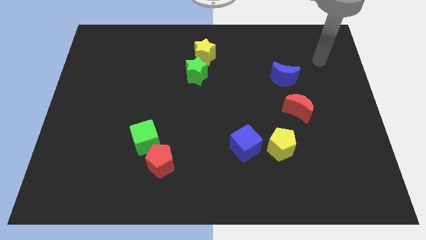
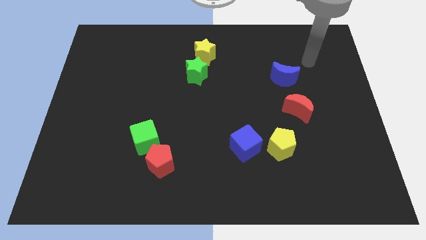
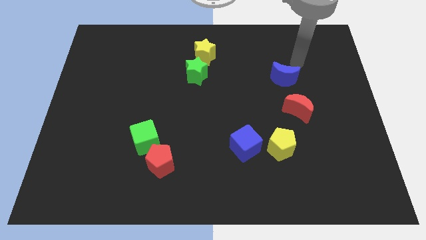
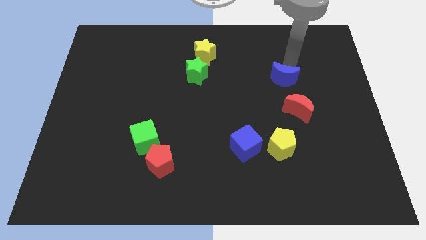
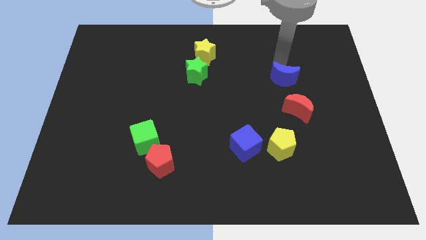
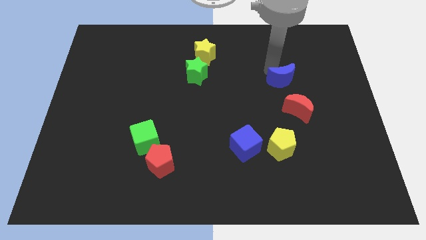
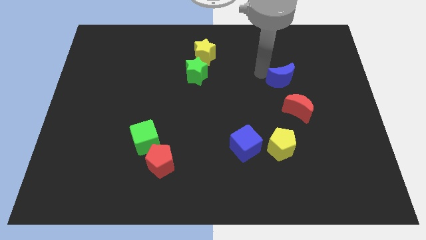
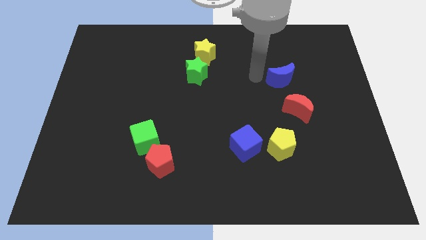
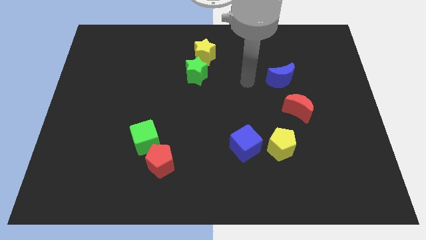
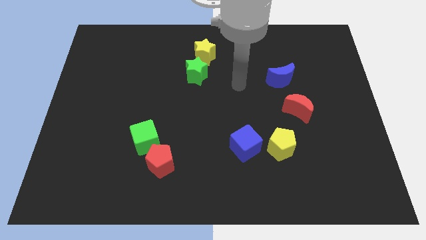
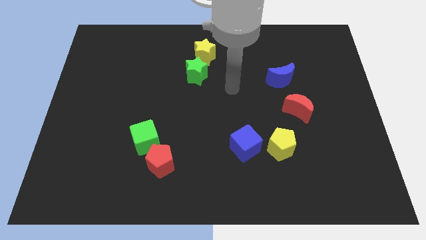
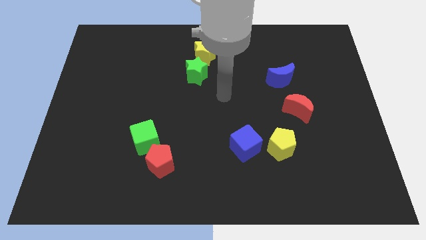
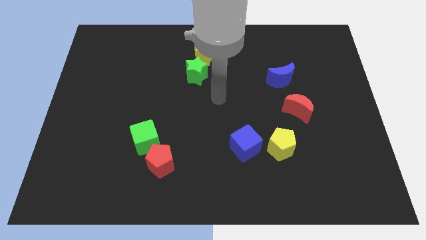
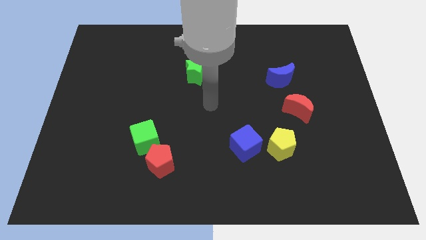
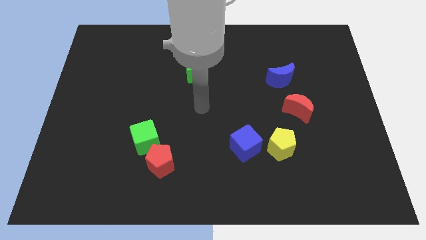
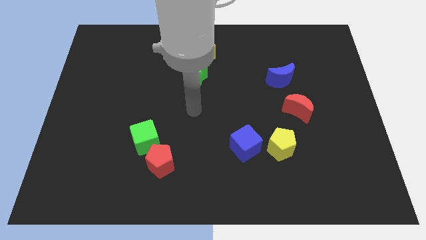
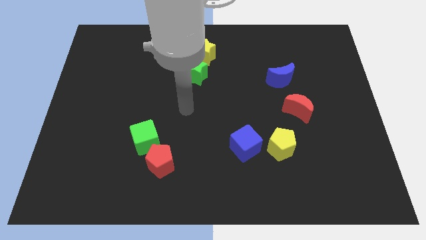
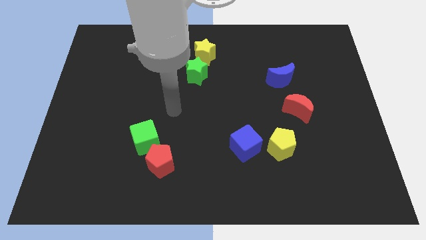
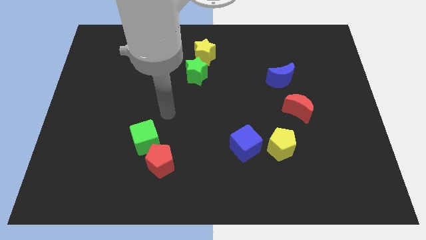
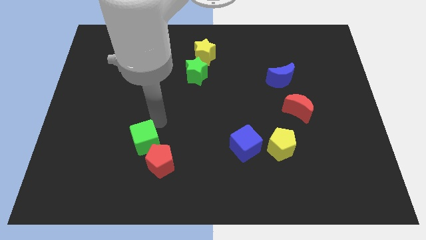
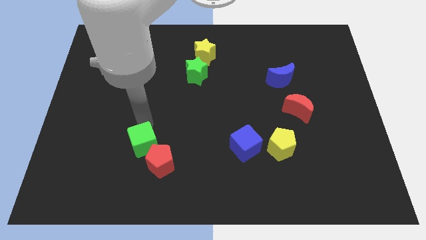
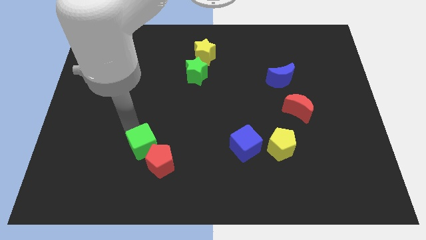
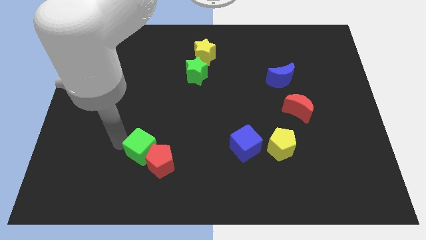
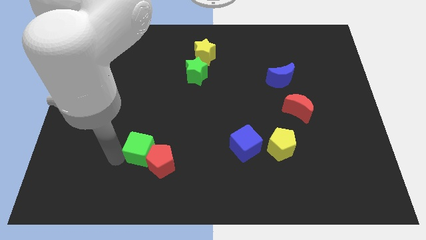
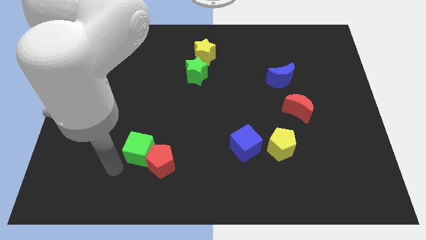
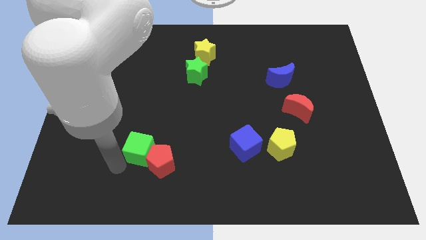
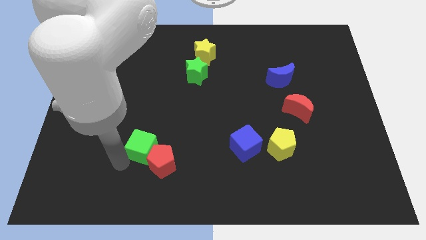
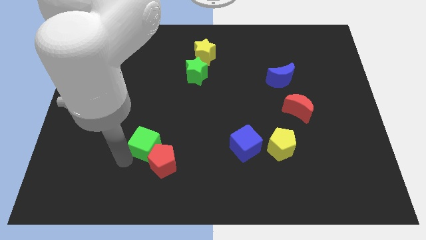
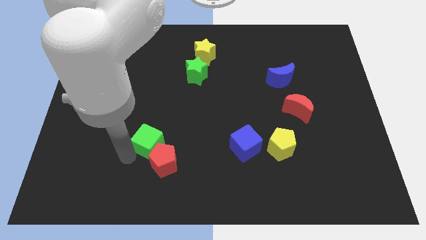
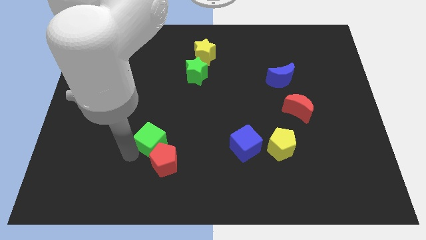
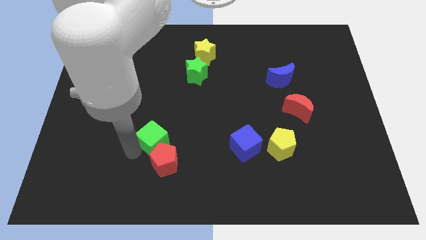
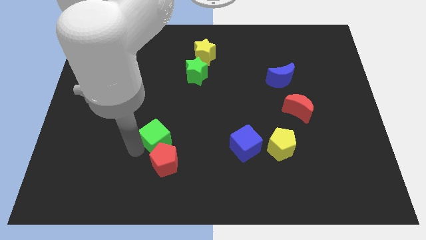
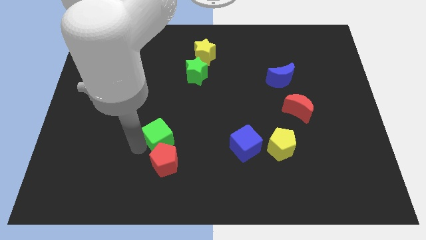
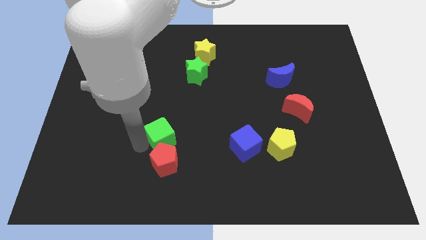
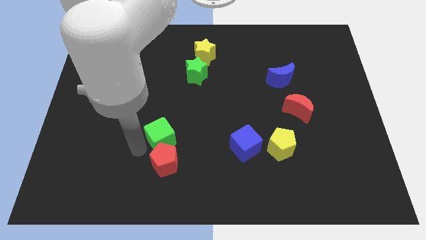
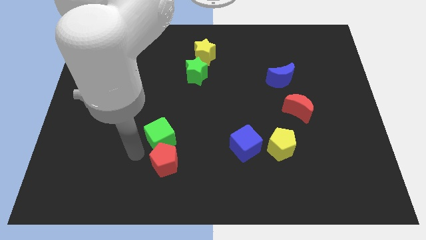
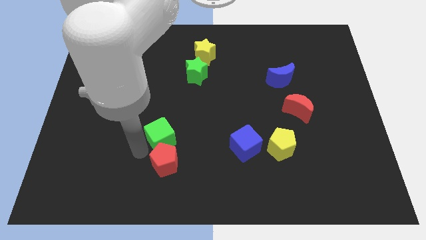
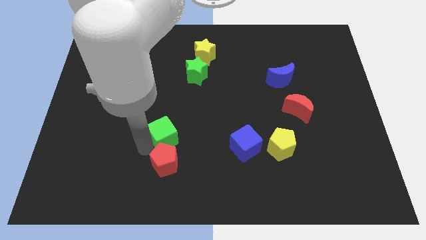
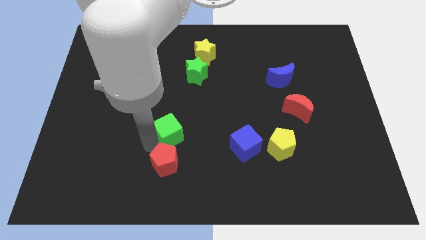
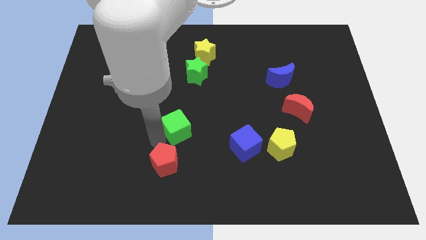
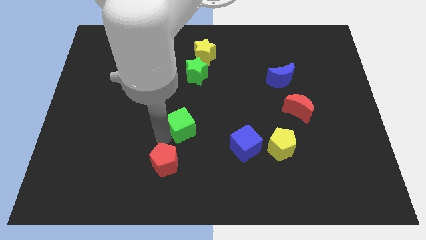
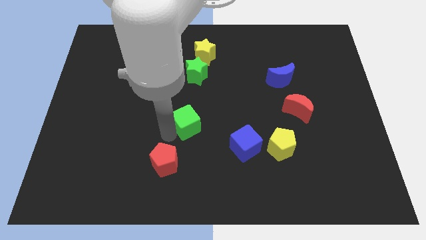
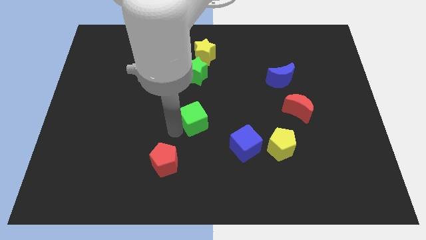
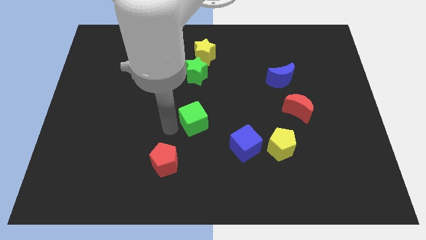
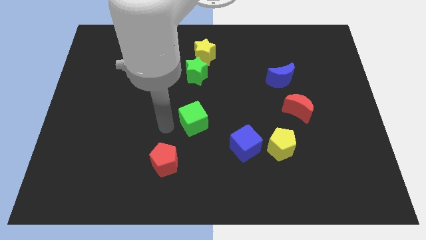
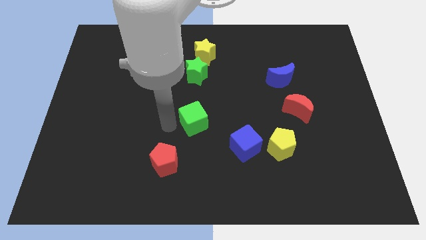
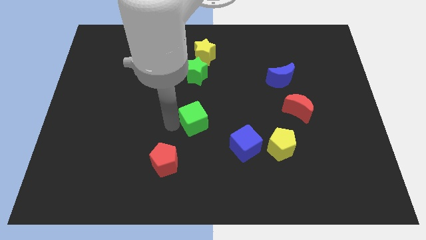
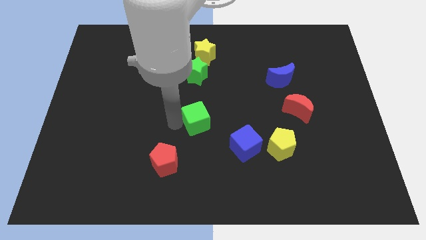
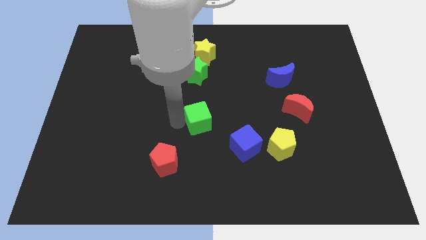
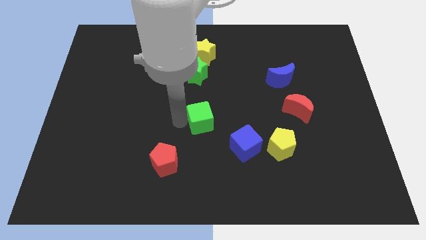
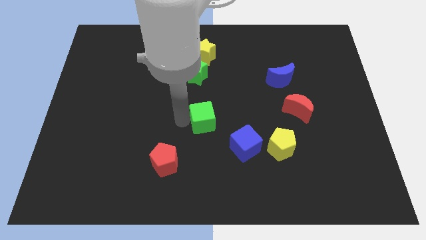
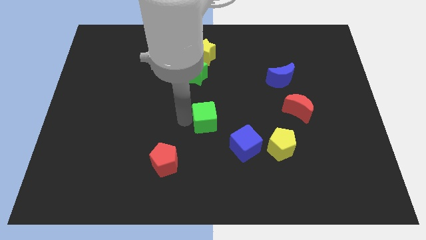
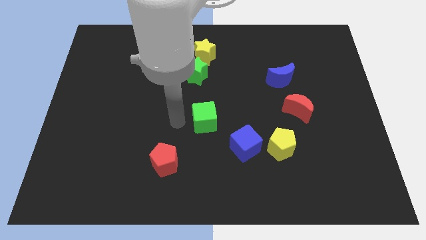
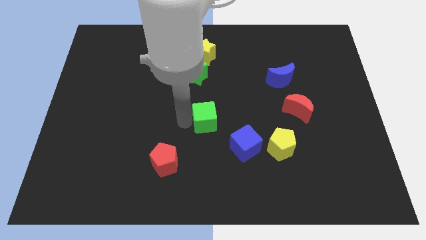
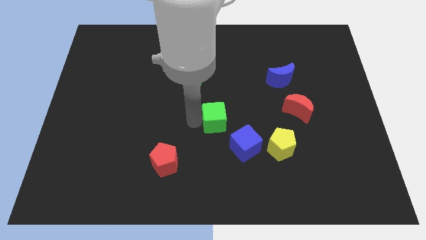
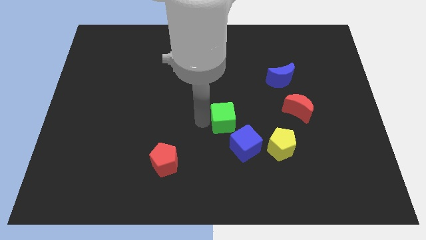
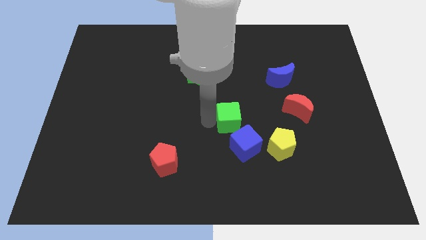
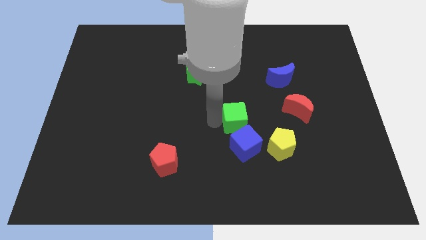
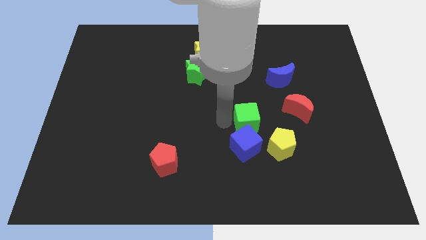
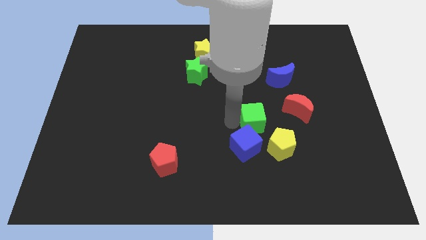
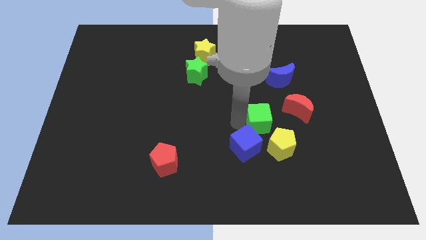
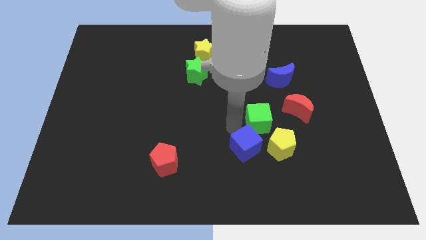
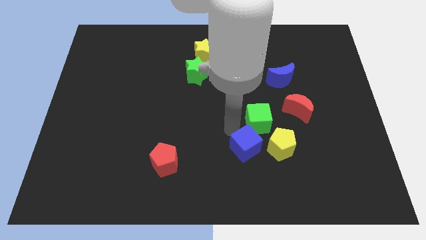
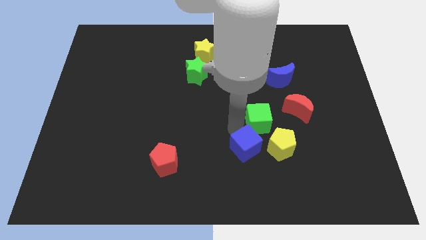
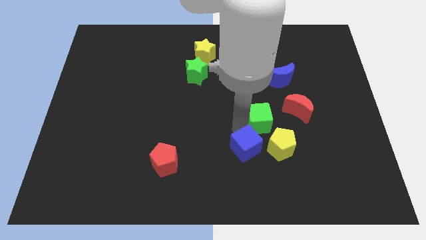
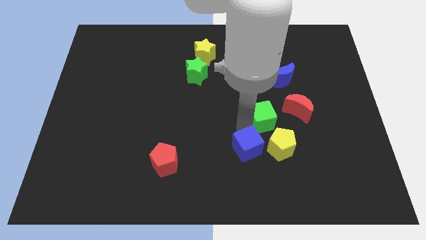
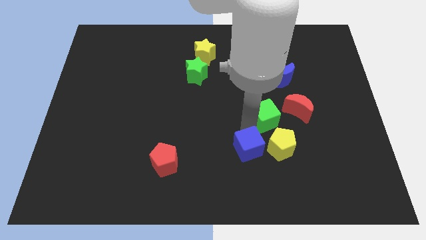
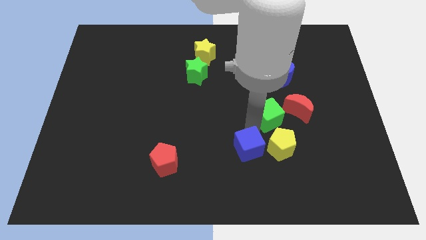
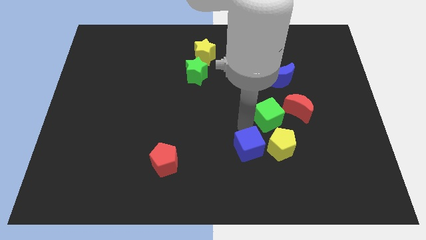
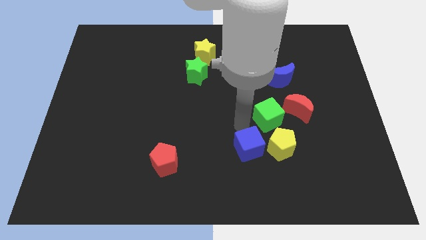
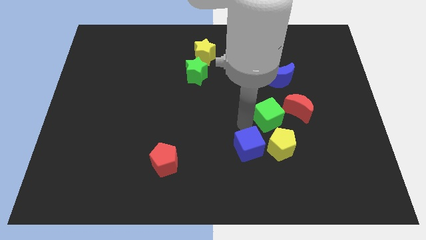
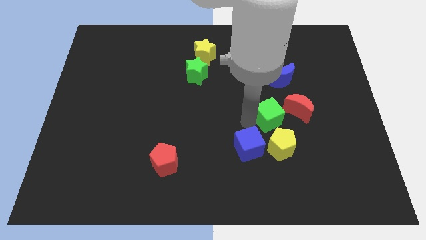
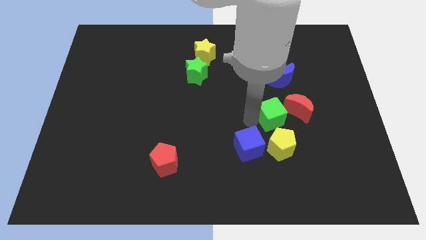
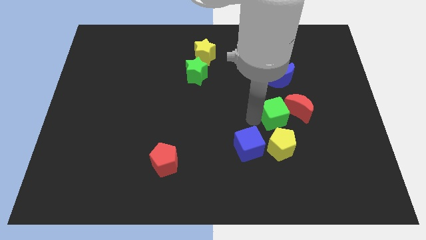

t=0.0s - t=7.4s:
push the green cube towards the red moon

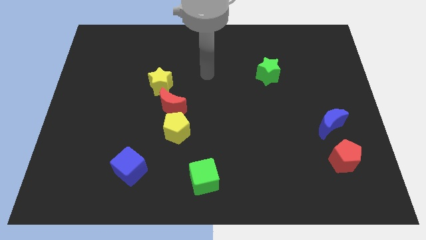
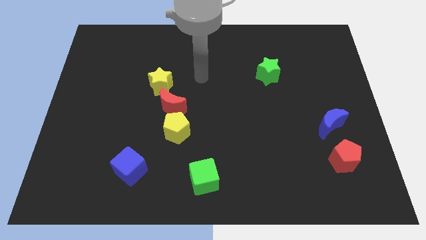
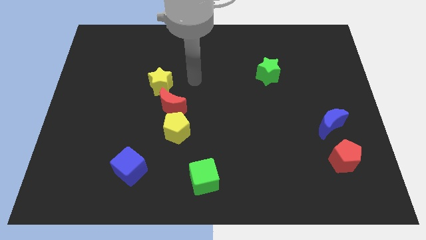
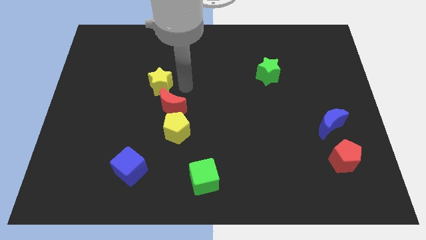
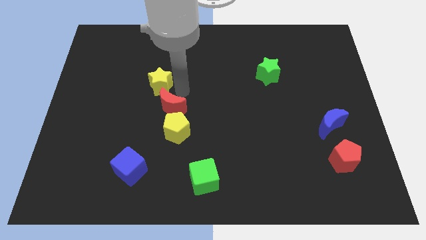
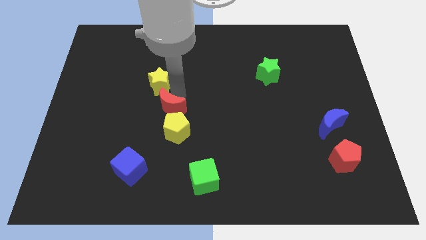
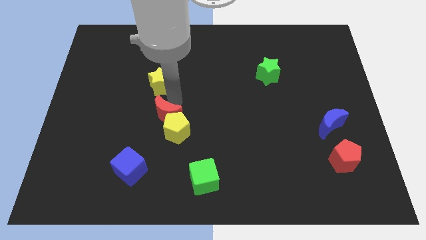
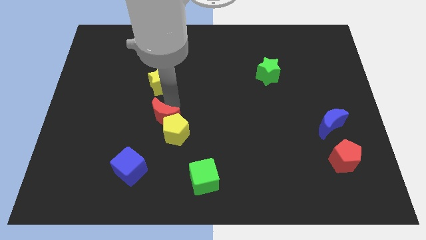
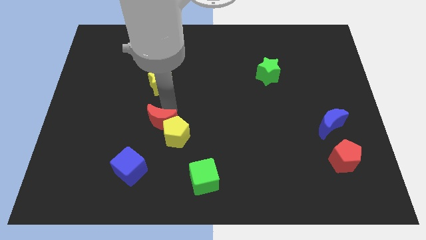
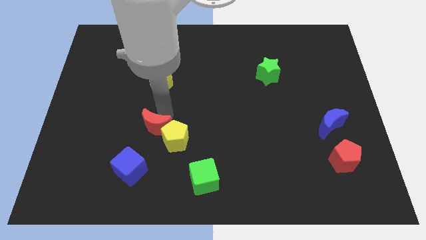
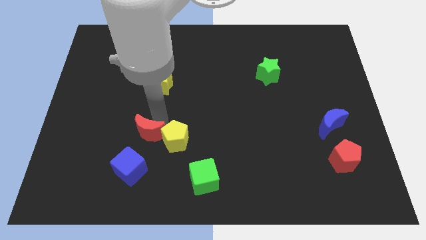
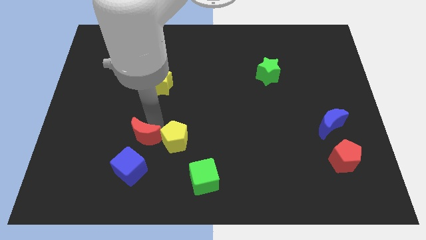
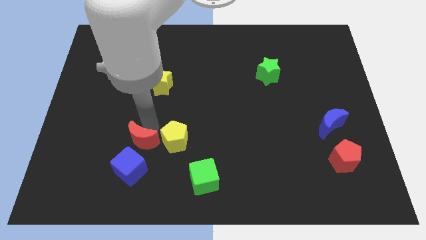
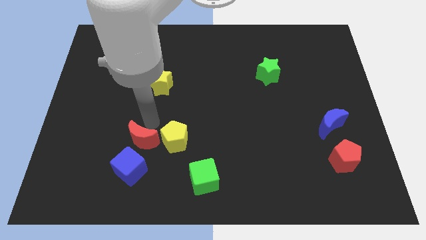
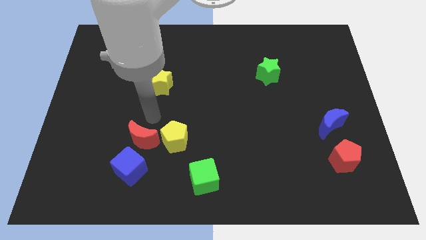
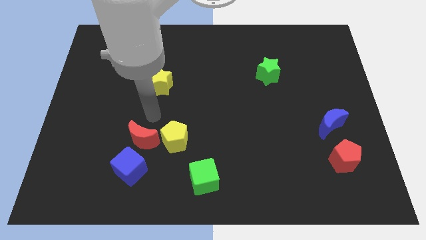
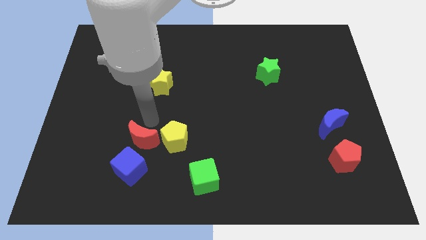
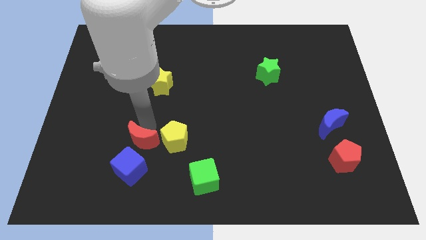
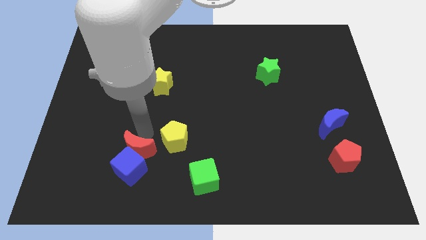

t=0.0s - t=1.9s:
put the red moon towards the blue cube
